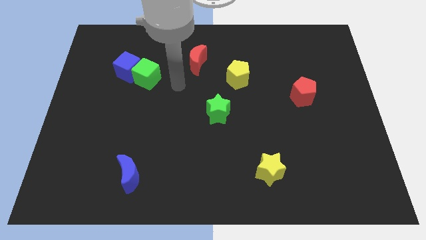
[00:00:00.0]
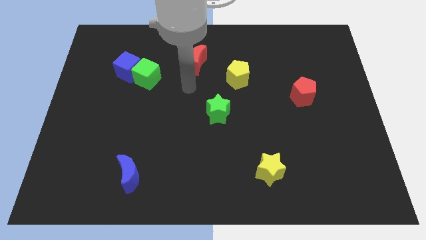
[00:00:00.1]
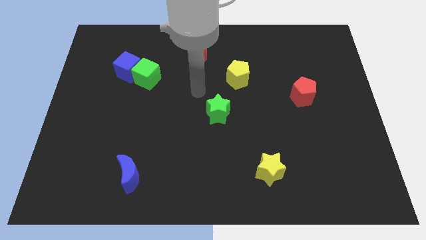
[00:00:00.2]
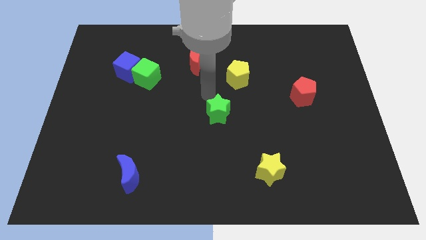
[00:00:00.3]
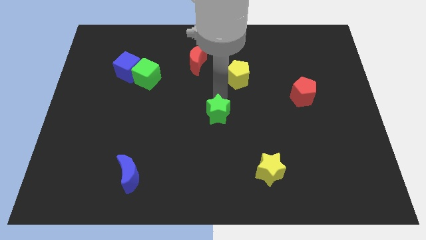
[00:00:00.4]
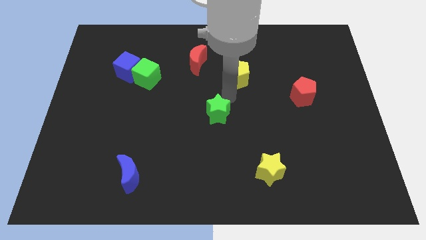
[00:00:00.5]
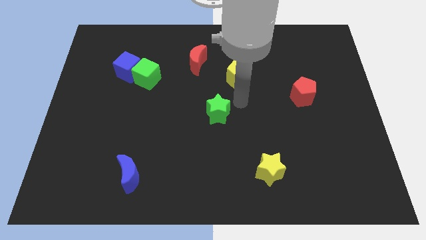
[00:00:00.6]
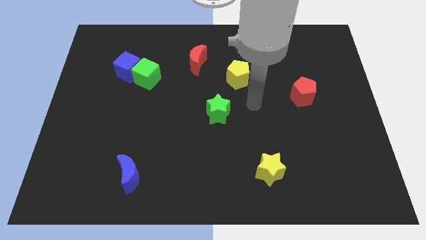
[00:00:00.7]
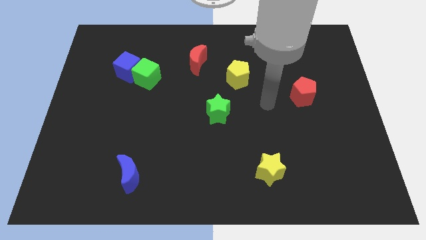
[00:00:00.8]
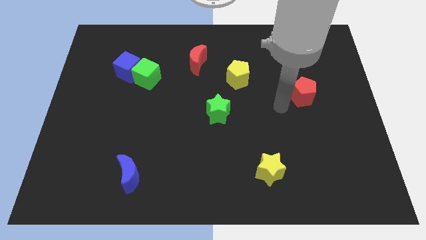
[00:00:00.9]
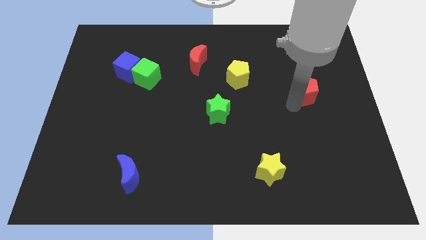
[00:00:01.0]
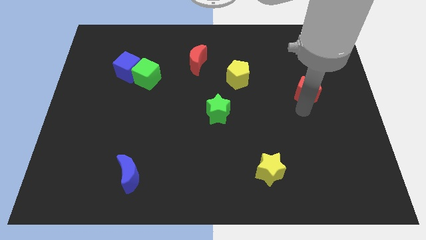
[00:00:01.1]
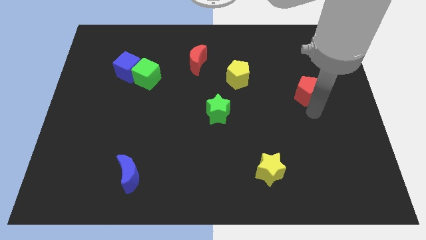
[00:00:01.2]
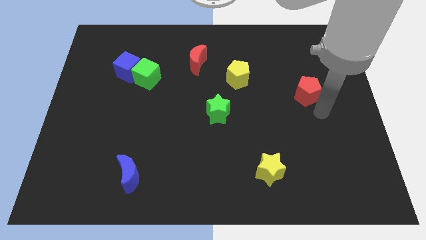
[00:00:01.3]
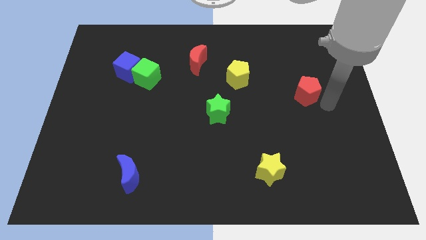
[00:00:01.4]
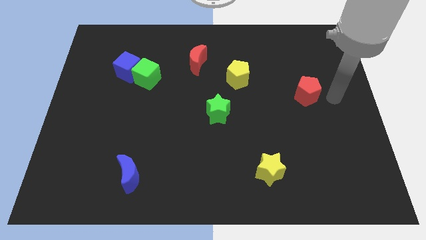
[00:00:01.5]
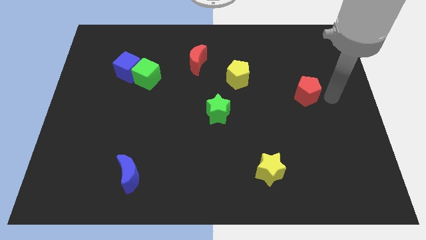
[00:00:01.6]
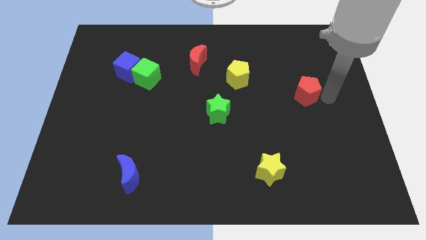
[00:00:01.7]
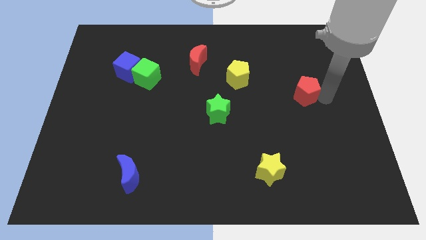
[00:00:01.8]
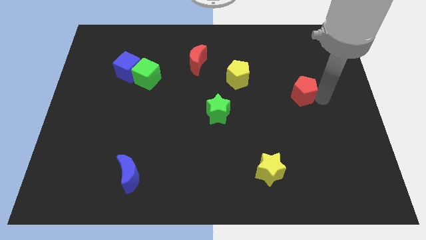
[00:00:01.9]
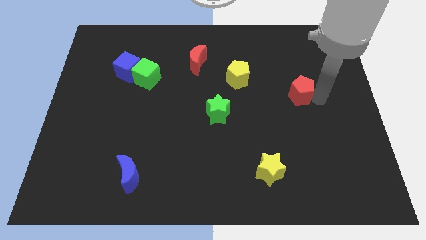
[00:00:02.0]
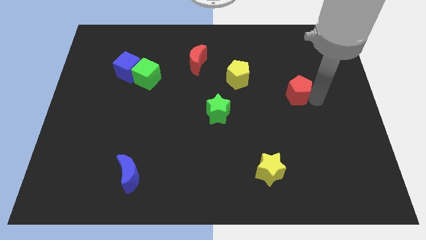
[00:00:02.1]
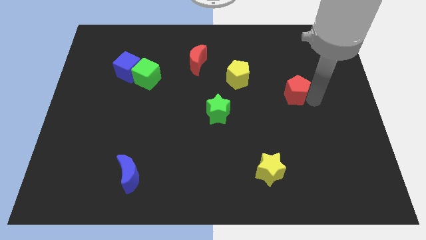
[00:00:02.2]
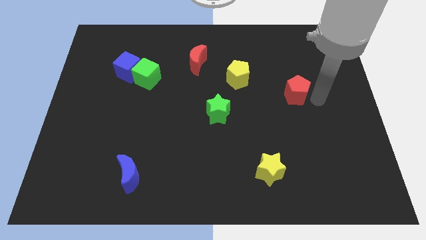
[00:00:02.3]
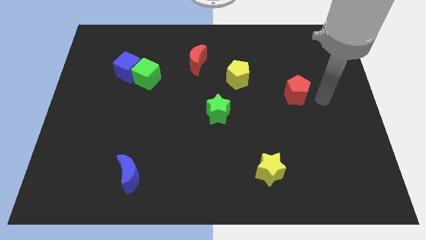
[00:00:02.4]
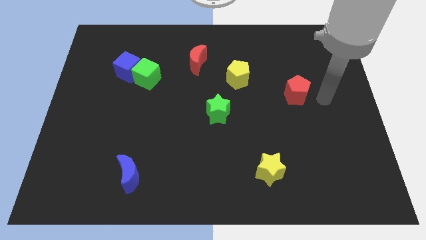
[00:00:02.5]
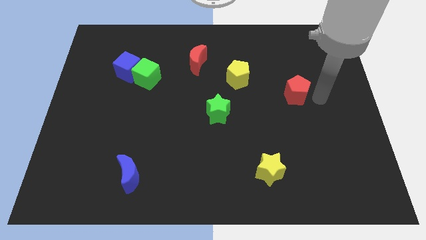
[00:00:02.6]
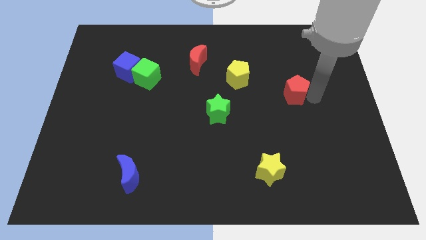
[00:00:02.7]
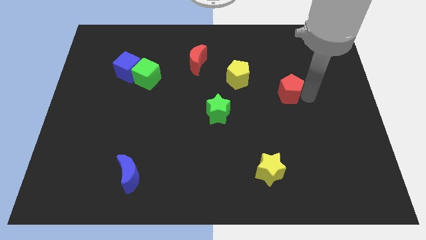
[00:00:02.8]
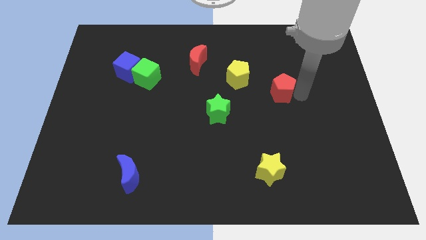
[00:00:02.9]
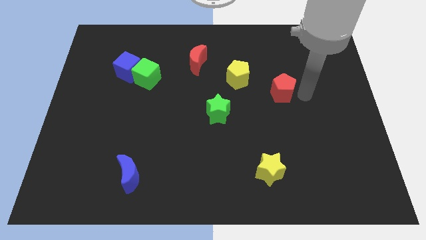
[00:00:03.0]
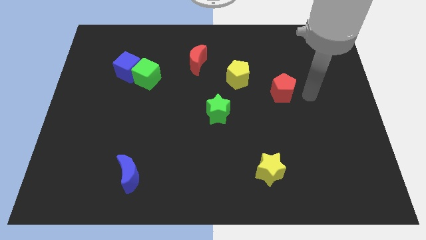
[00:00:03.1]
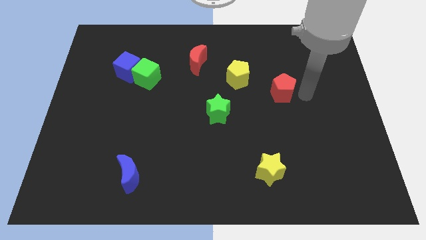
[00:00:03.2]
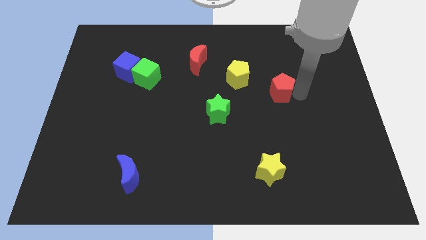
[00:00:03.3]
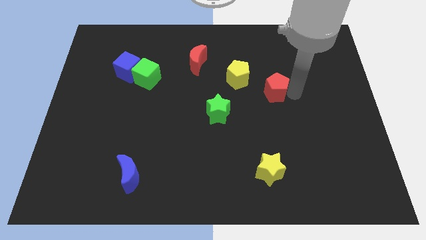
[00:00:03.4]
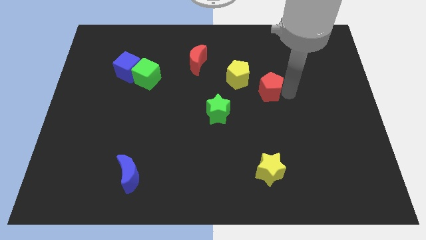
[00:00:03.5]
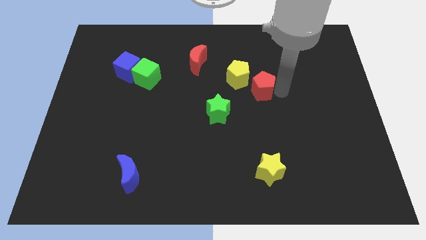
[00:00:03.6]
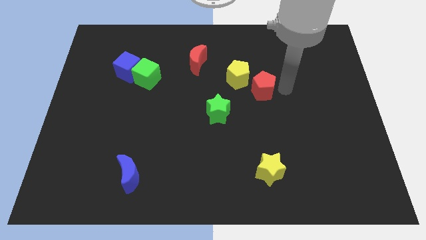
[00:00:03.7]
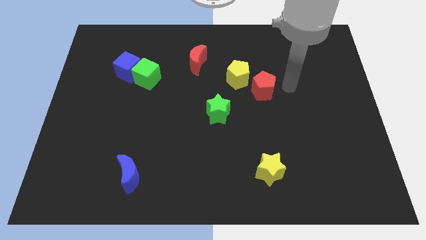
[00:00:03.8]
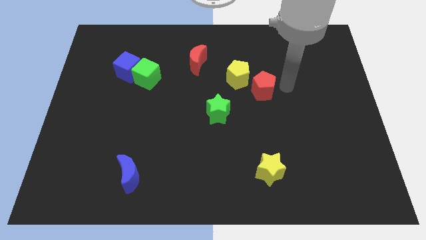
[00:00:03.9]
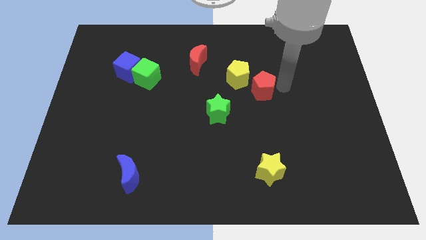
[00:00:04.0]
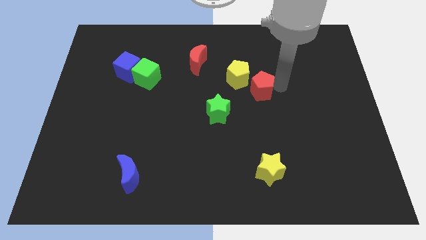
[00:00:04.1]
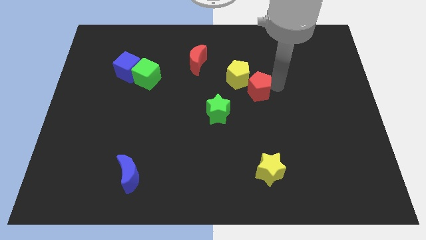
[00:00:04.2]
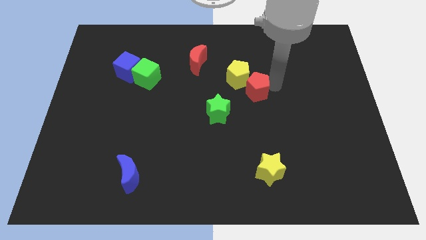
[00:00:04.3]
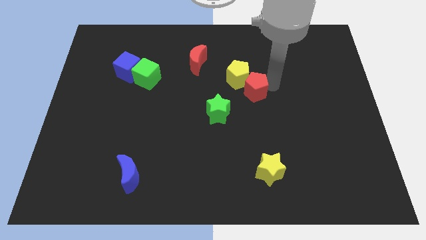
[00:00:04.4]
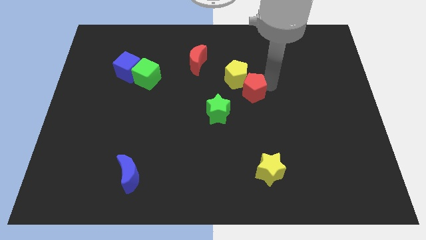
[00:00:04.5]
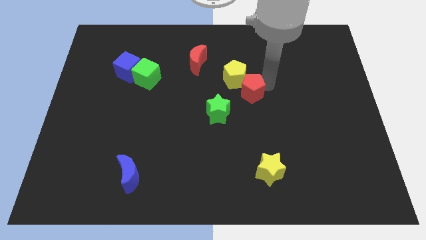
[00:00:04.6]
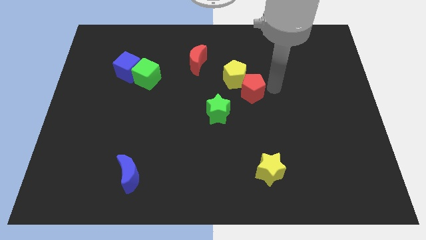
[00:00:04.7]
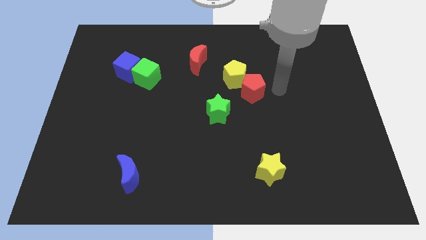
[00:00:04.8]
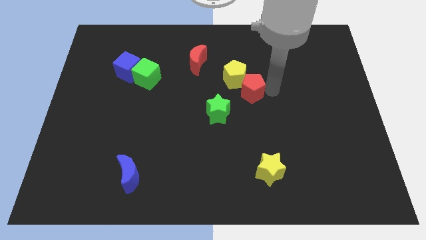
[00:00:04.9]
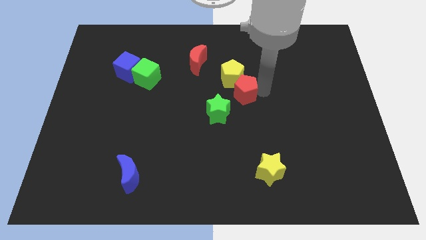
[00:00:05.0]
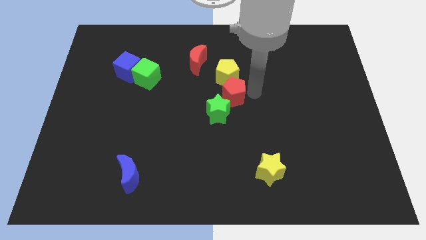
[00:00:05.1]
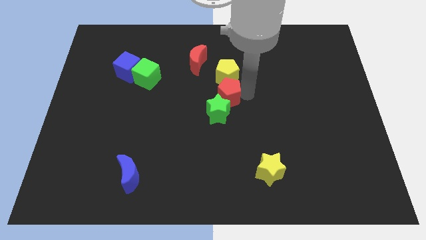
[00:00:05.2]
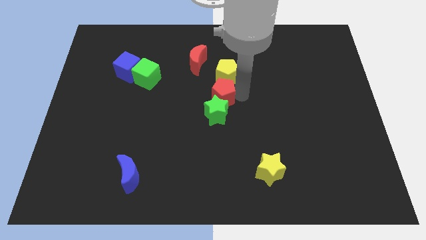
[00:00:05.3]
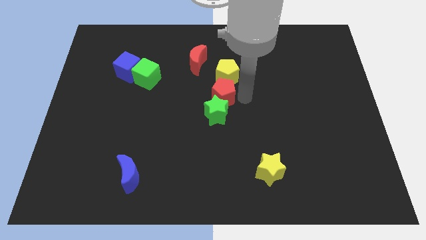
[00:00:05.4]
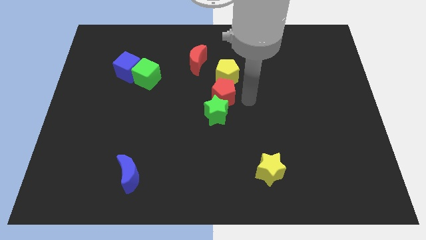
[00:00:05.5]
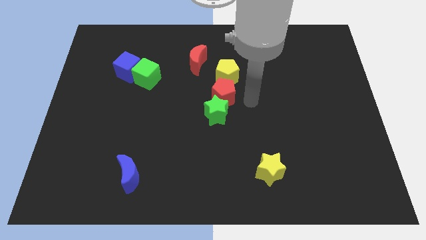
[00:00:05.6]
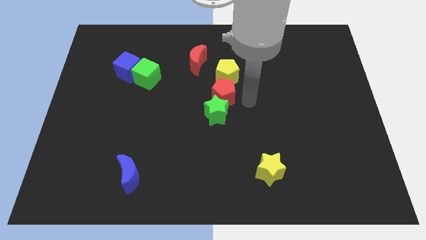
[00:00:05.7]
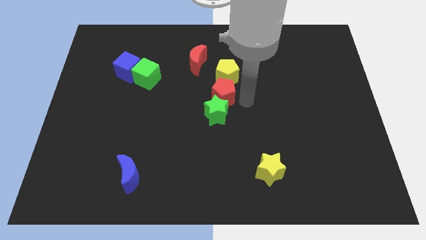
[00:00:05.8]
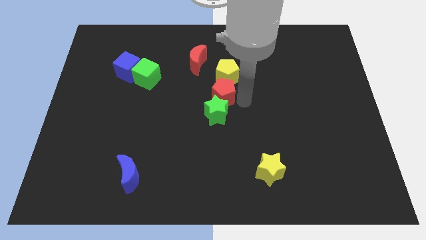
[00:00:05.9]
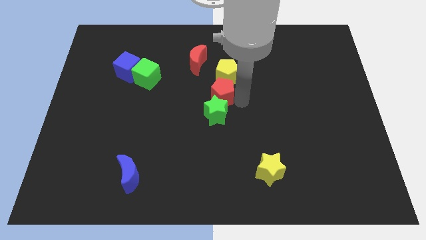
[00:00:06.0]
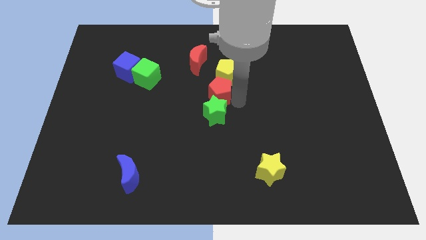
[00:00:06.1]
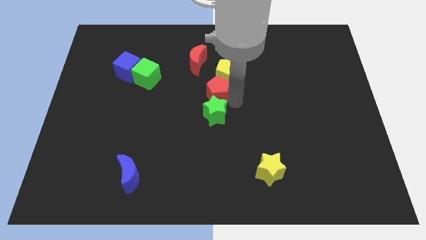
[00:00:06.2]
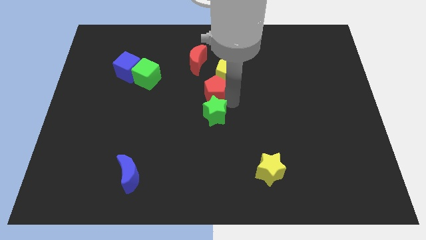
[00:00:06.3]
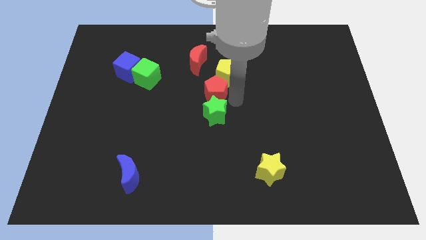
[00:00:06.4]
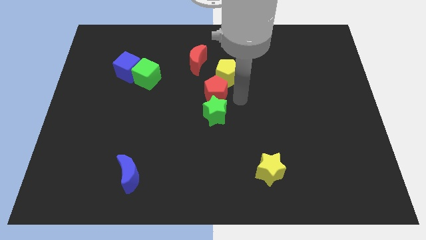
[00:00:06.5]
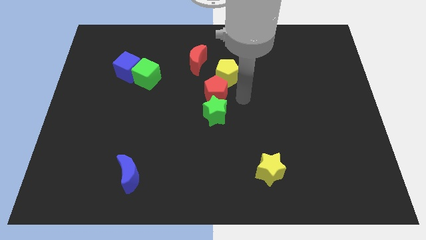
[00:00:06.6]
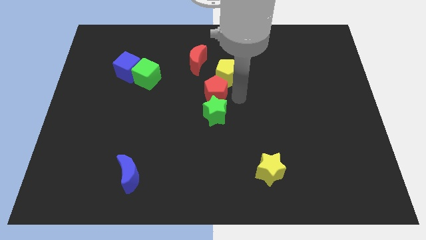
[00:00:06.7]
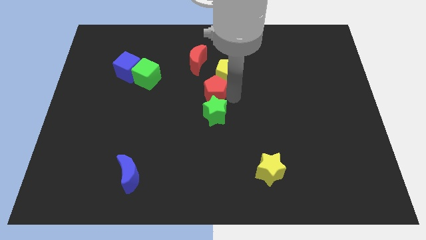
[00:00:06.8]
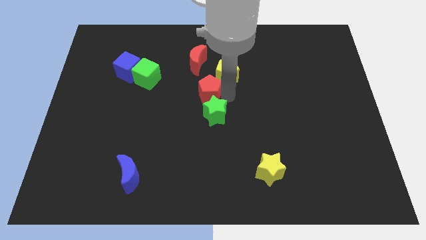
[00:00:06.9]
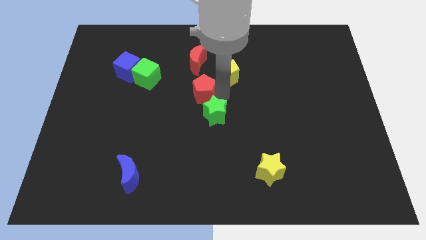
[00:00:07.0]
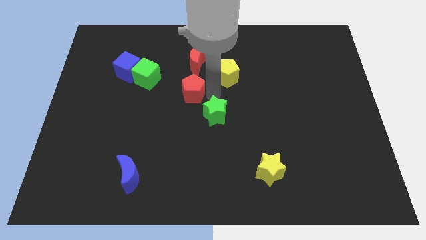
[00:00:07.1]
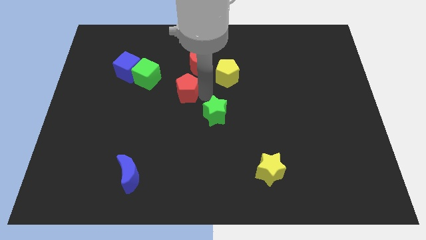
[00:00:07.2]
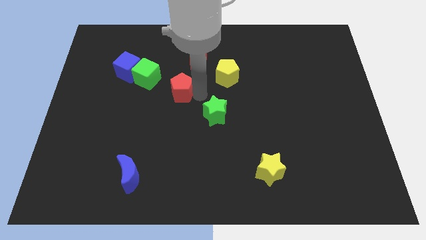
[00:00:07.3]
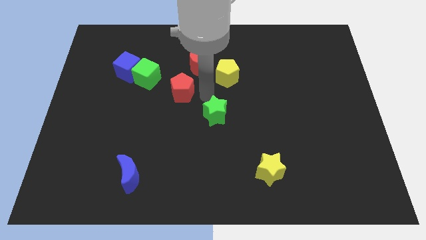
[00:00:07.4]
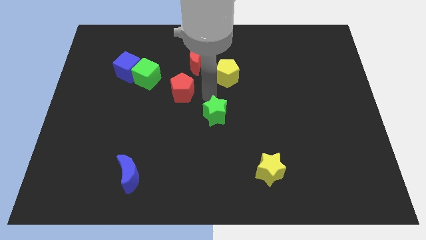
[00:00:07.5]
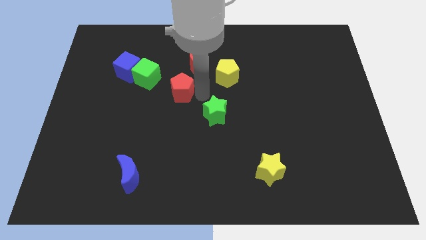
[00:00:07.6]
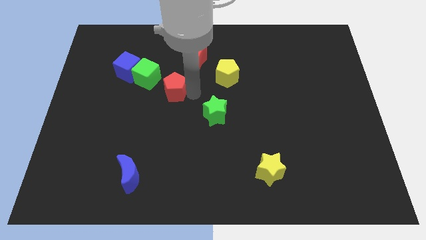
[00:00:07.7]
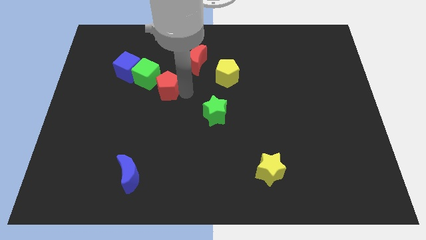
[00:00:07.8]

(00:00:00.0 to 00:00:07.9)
push the red pentagon diagonally down and to the right of the blue cube
